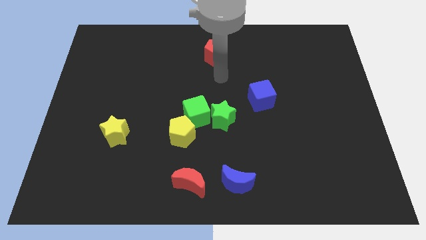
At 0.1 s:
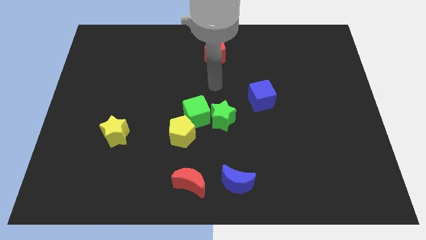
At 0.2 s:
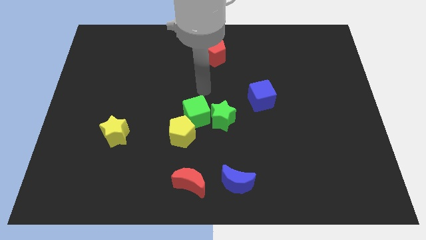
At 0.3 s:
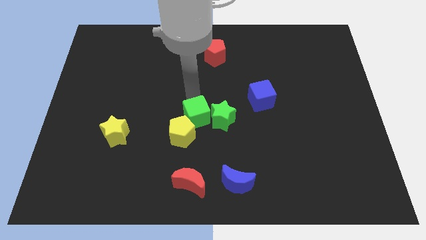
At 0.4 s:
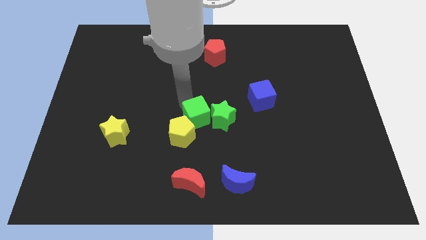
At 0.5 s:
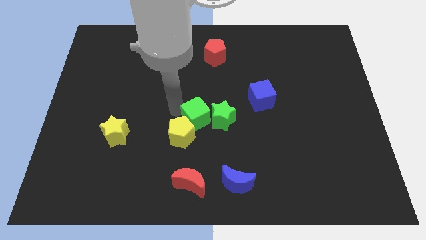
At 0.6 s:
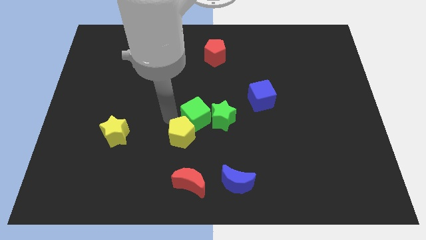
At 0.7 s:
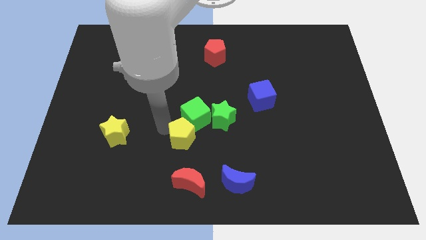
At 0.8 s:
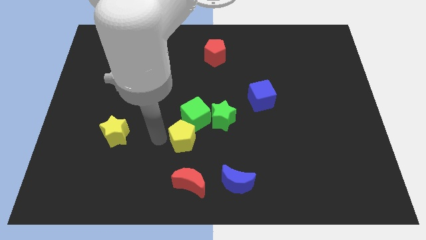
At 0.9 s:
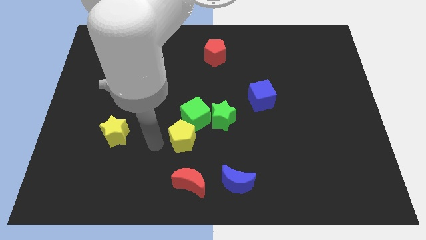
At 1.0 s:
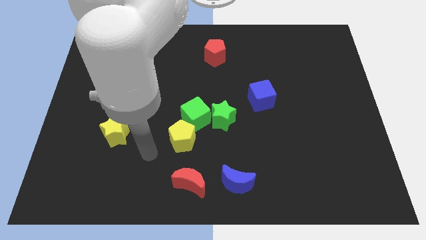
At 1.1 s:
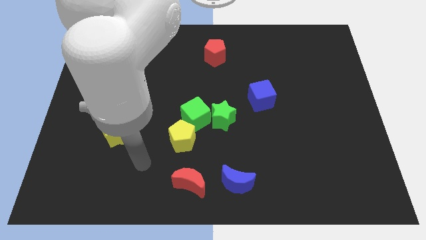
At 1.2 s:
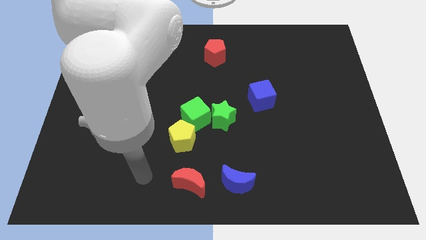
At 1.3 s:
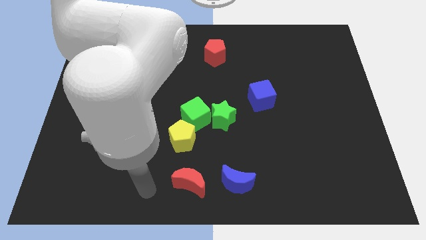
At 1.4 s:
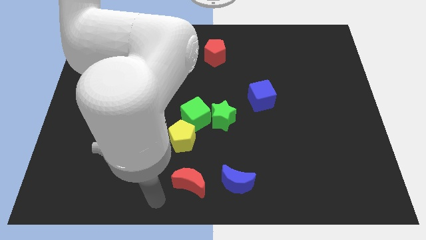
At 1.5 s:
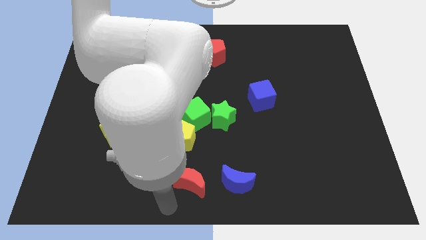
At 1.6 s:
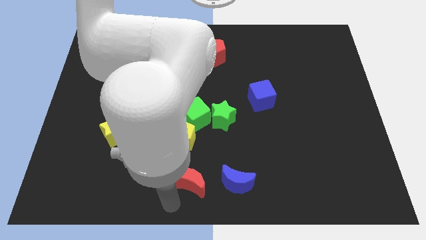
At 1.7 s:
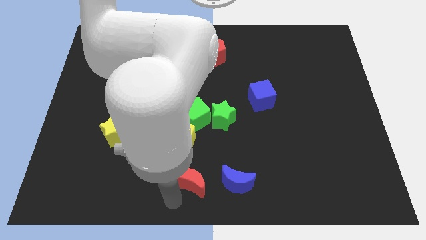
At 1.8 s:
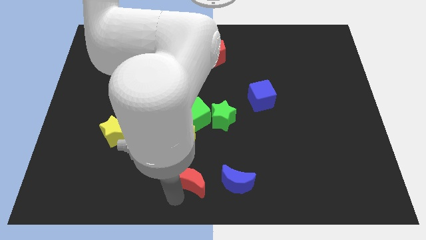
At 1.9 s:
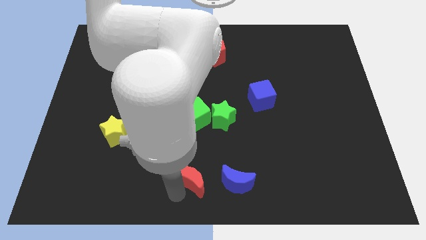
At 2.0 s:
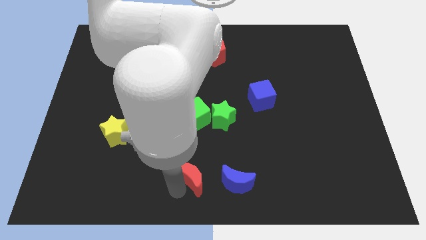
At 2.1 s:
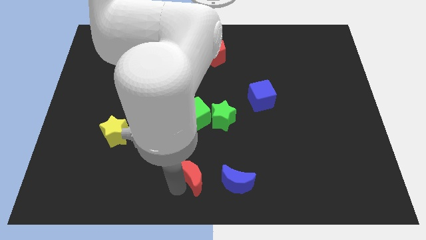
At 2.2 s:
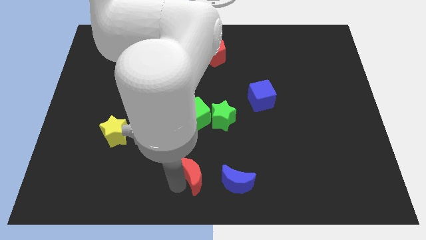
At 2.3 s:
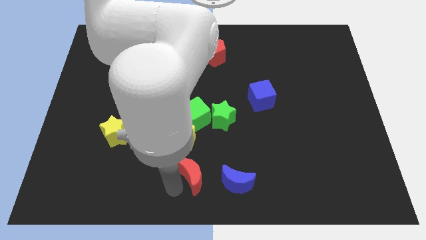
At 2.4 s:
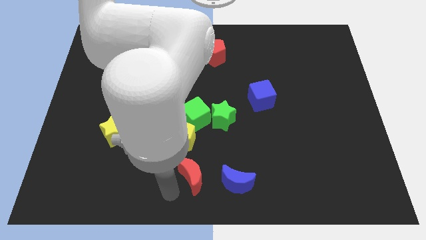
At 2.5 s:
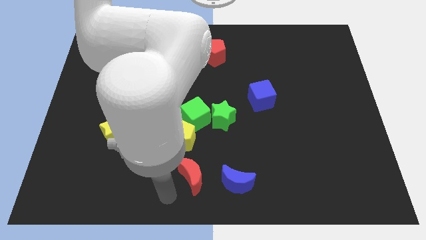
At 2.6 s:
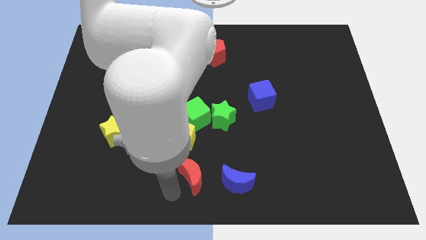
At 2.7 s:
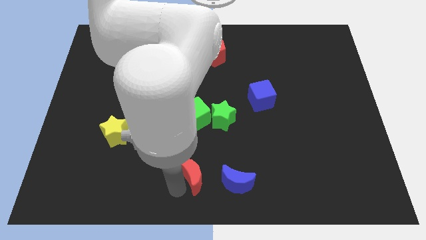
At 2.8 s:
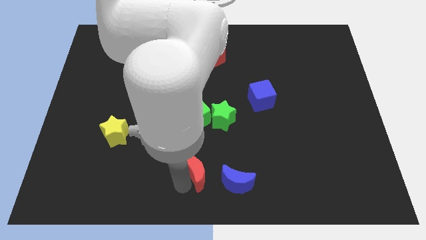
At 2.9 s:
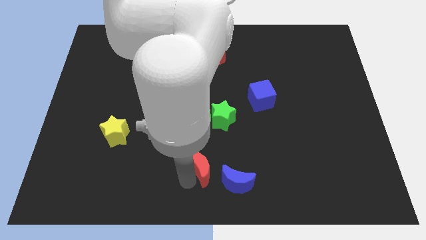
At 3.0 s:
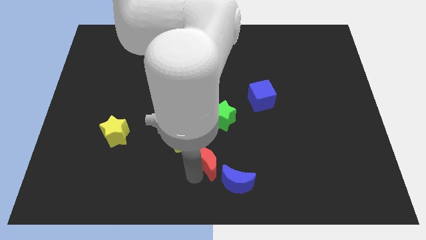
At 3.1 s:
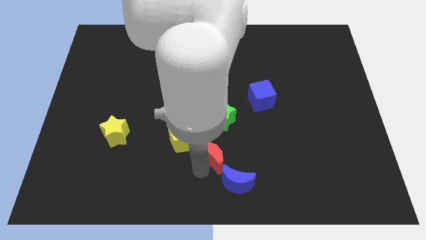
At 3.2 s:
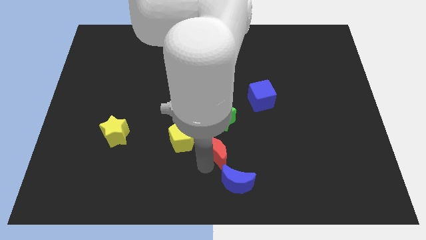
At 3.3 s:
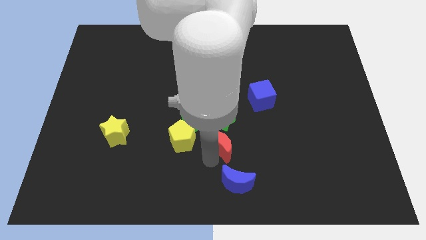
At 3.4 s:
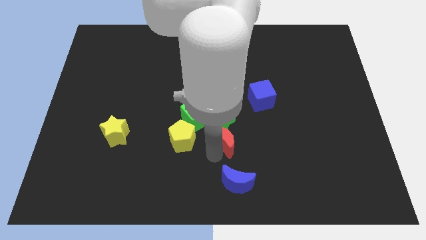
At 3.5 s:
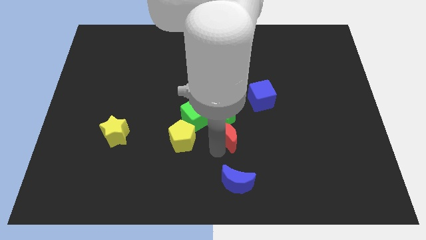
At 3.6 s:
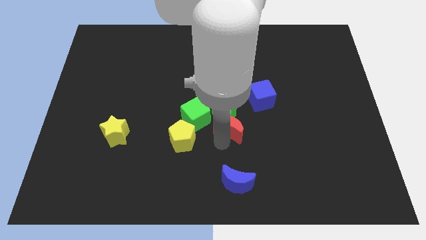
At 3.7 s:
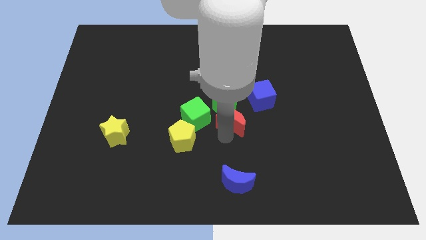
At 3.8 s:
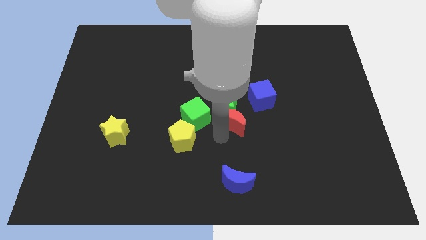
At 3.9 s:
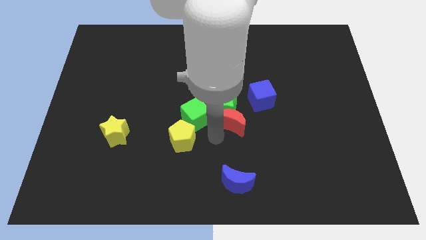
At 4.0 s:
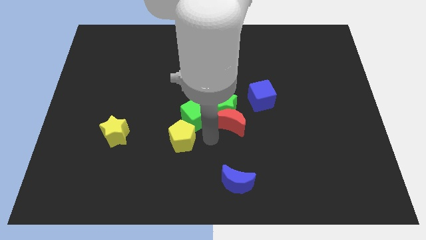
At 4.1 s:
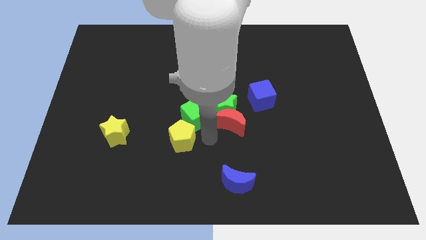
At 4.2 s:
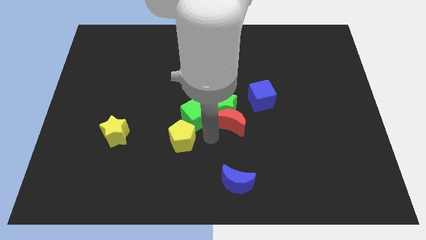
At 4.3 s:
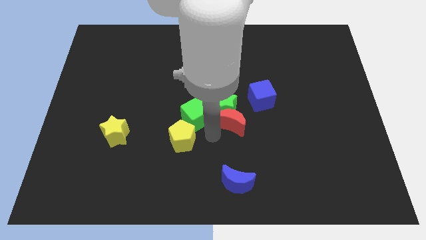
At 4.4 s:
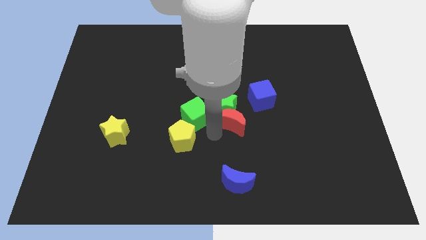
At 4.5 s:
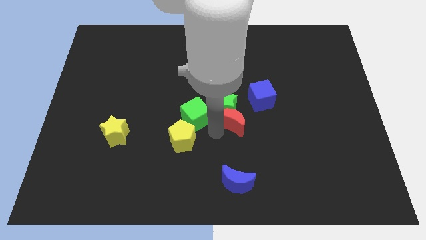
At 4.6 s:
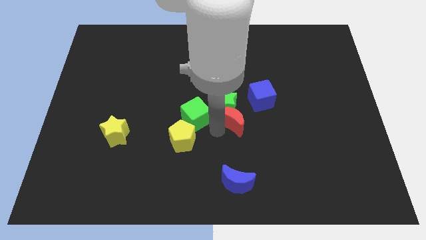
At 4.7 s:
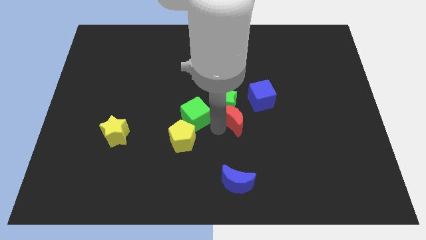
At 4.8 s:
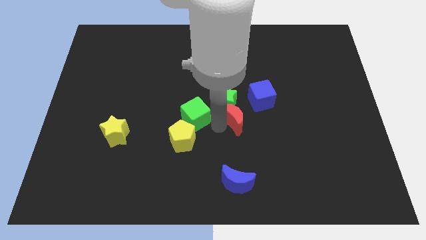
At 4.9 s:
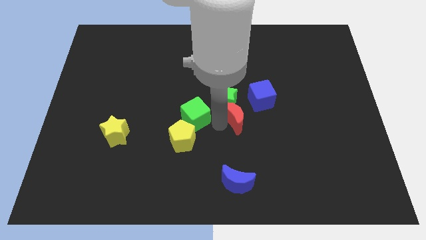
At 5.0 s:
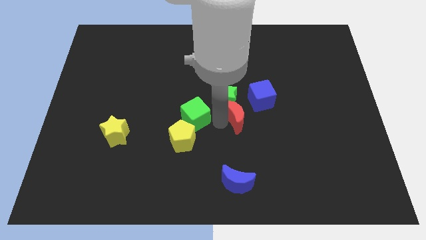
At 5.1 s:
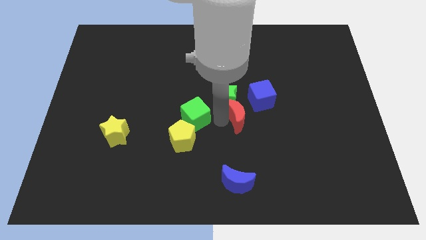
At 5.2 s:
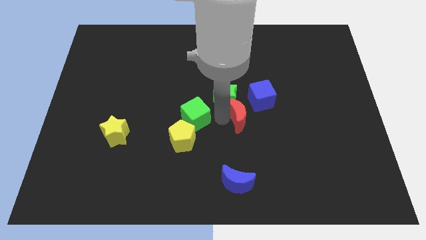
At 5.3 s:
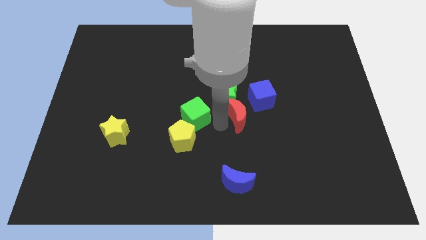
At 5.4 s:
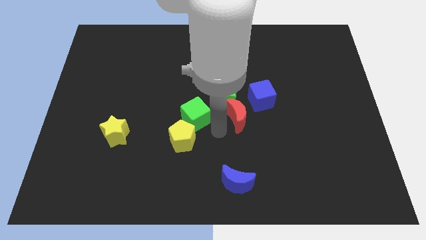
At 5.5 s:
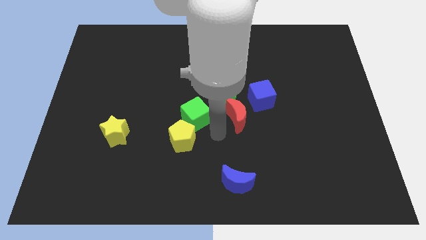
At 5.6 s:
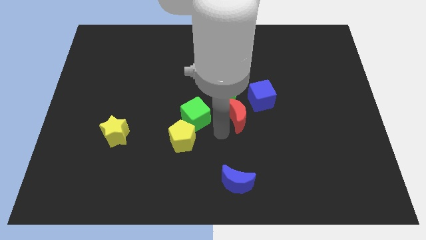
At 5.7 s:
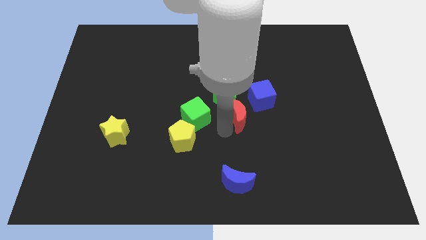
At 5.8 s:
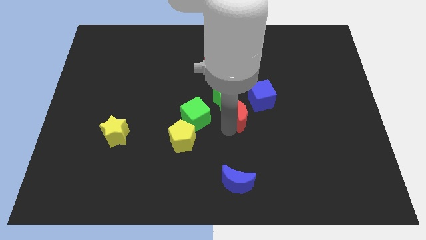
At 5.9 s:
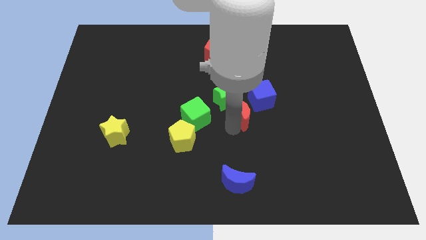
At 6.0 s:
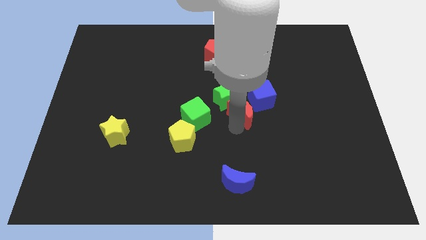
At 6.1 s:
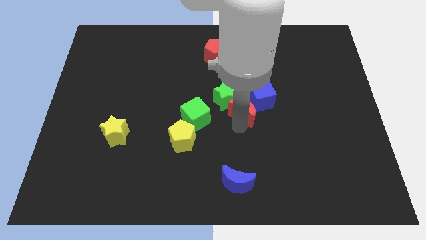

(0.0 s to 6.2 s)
push the red moon close to the blue cube

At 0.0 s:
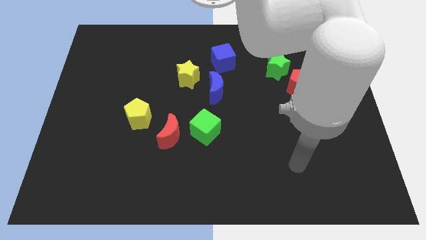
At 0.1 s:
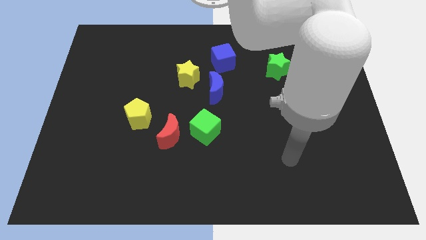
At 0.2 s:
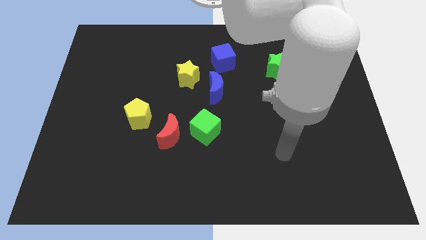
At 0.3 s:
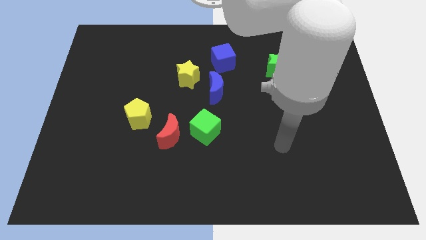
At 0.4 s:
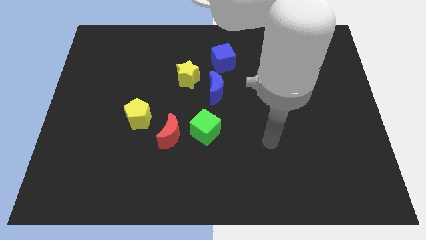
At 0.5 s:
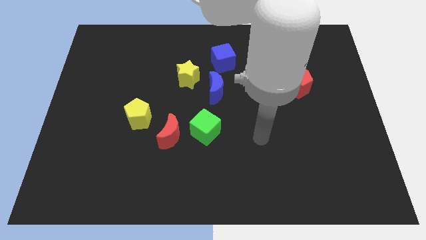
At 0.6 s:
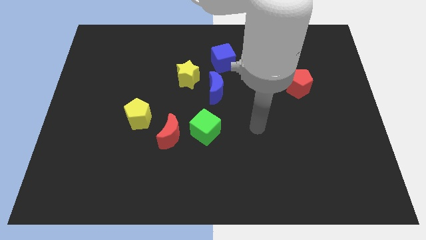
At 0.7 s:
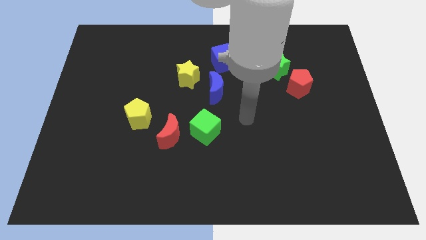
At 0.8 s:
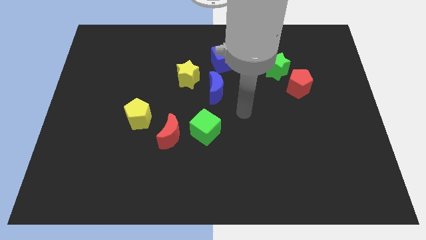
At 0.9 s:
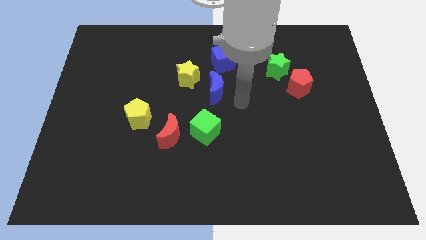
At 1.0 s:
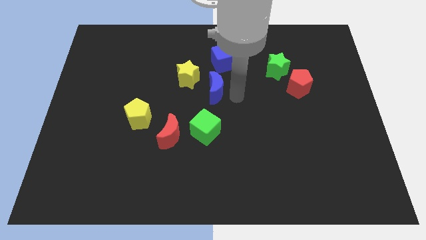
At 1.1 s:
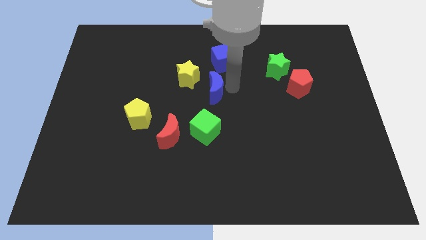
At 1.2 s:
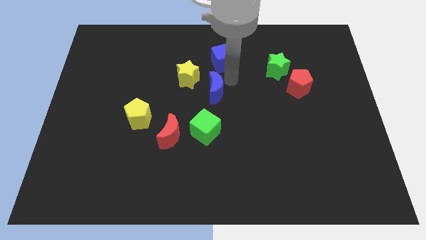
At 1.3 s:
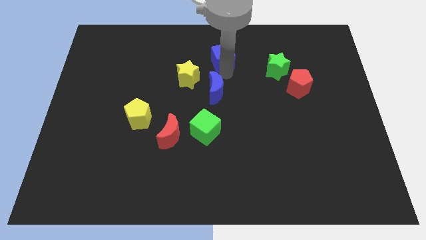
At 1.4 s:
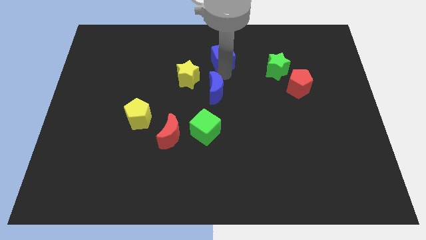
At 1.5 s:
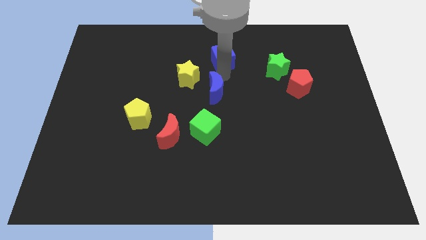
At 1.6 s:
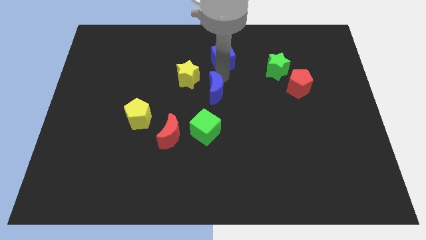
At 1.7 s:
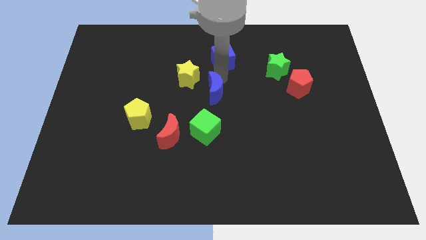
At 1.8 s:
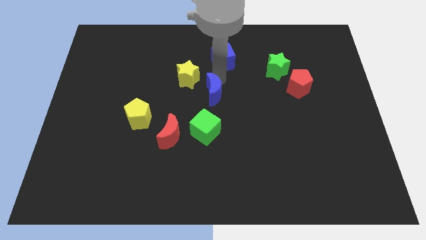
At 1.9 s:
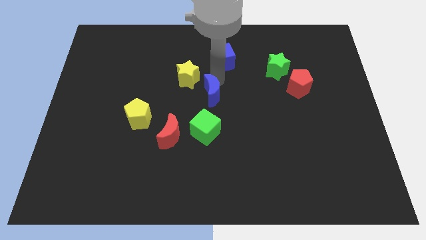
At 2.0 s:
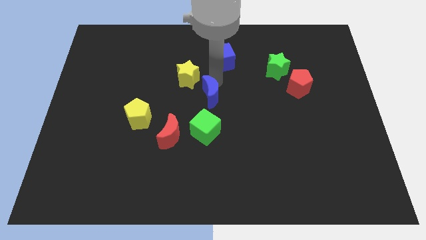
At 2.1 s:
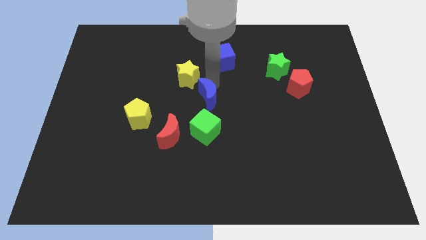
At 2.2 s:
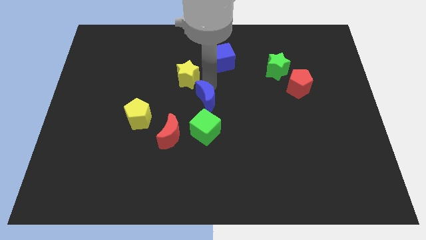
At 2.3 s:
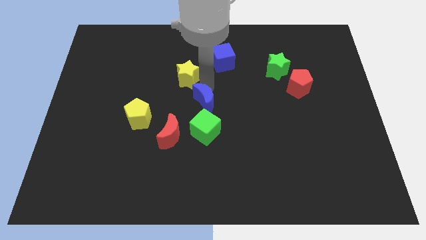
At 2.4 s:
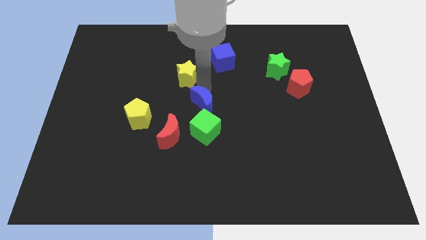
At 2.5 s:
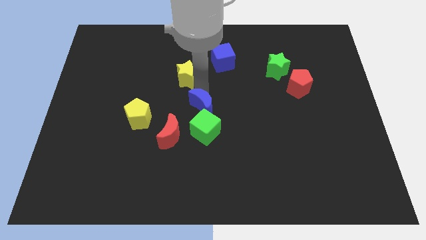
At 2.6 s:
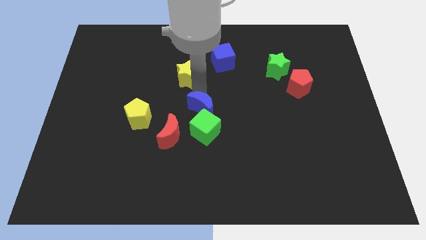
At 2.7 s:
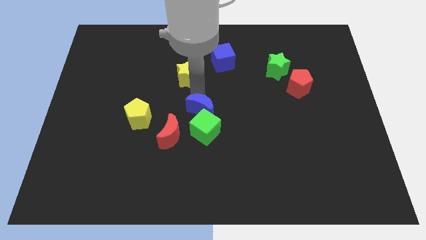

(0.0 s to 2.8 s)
slide the blue moon to the green cube
